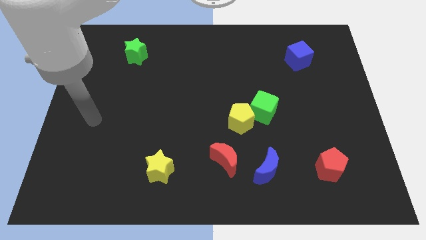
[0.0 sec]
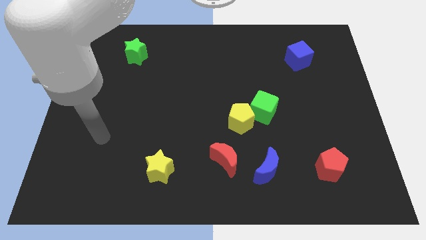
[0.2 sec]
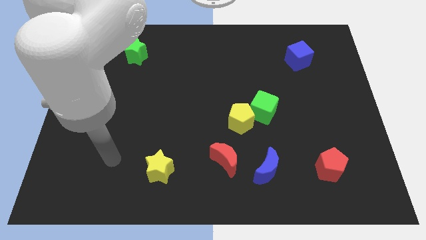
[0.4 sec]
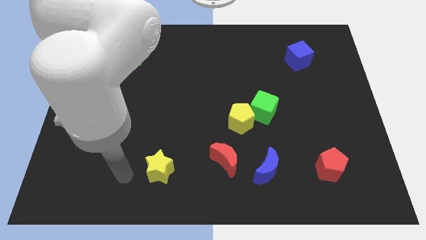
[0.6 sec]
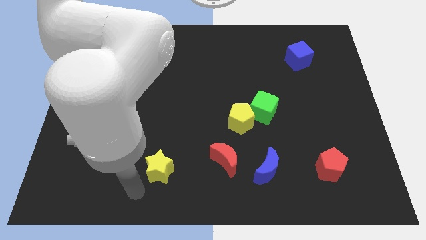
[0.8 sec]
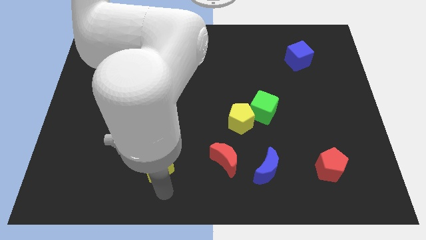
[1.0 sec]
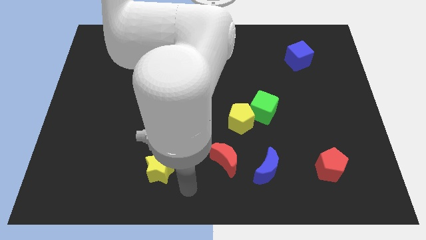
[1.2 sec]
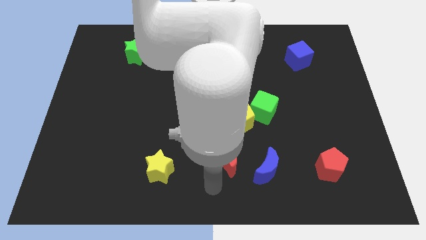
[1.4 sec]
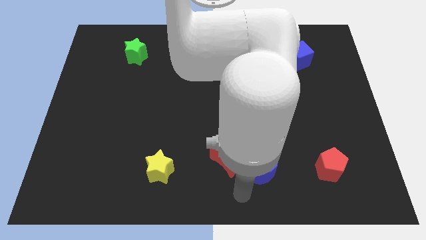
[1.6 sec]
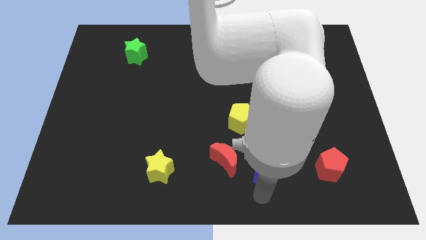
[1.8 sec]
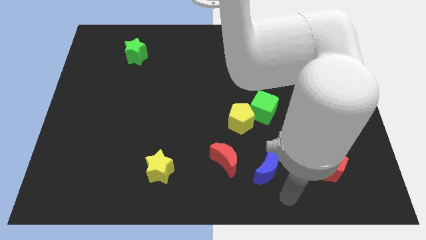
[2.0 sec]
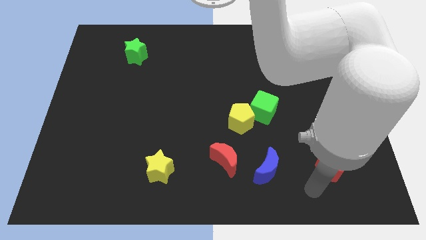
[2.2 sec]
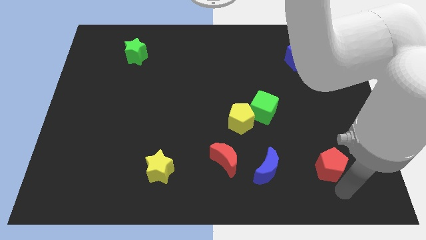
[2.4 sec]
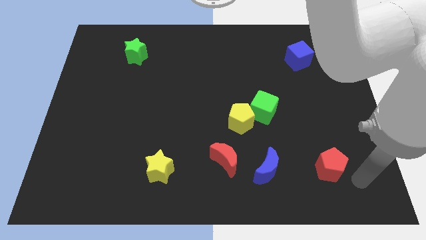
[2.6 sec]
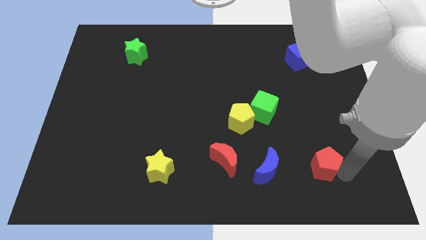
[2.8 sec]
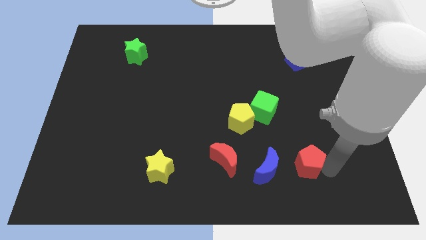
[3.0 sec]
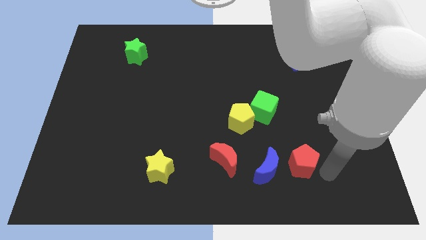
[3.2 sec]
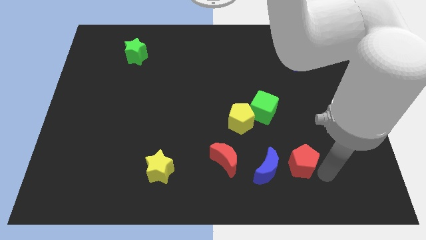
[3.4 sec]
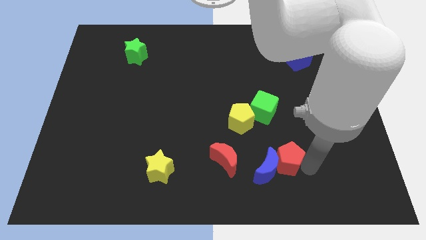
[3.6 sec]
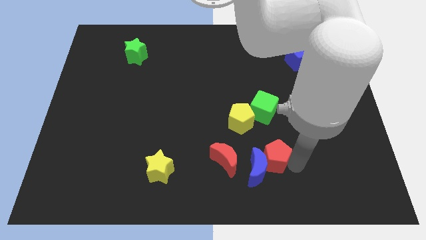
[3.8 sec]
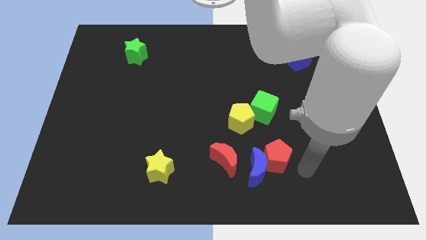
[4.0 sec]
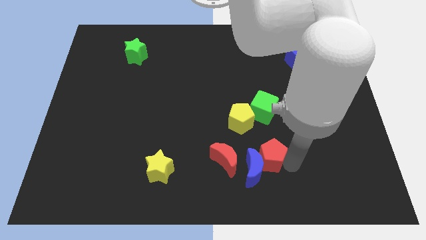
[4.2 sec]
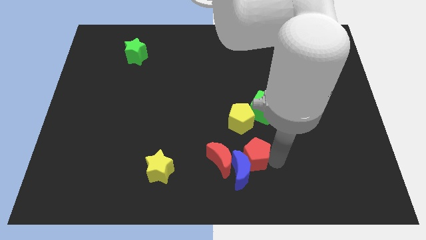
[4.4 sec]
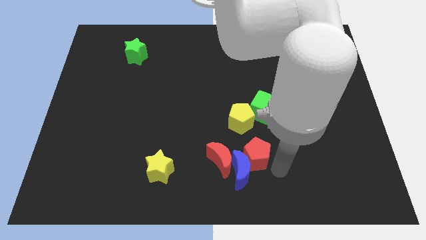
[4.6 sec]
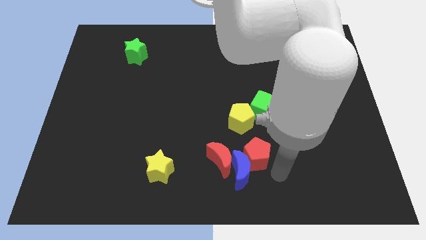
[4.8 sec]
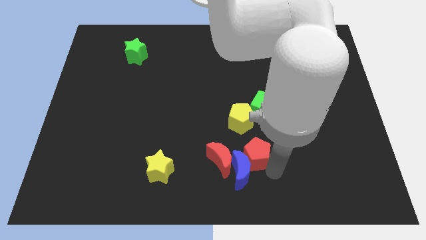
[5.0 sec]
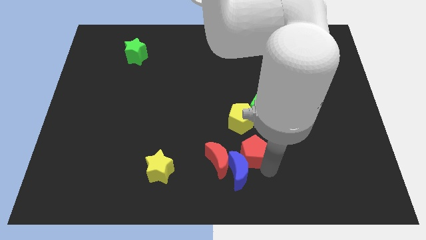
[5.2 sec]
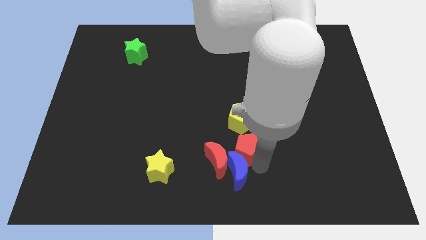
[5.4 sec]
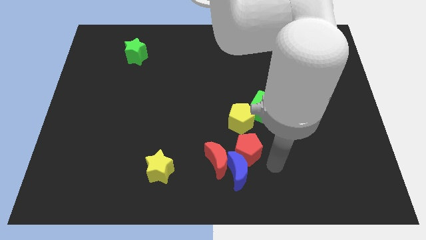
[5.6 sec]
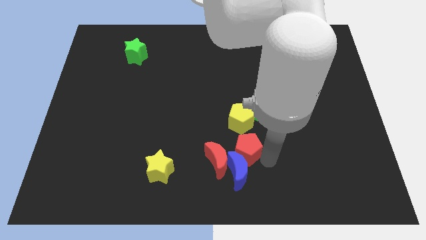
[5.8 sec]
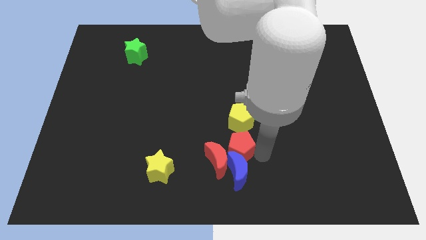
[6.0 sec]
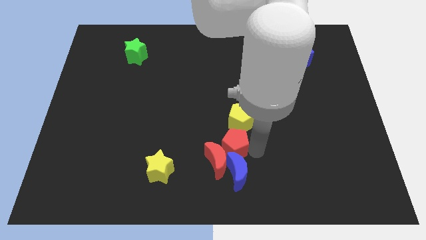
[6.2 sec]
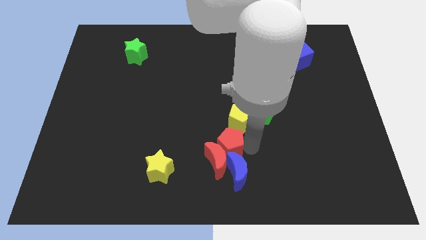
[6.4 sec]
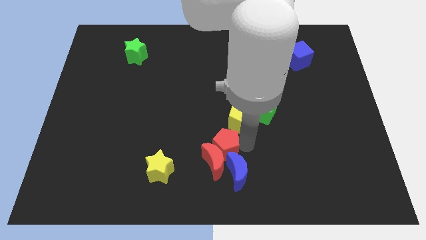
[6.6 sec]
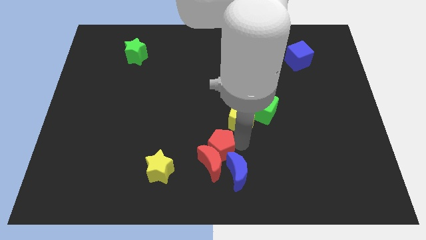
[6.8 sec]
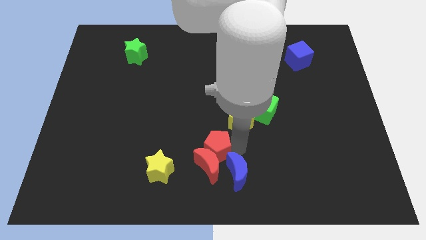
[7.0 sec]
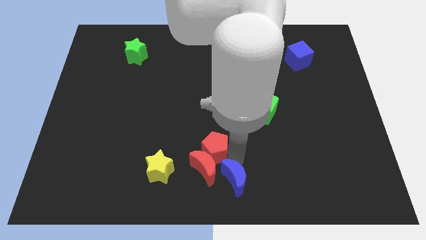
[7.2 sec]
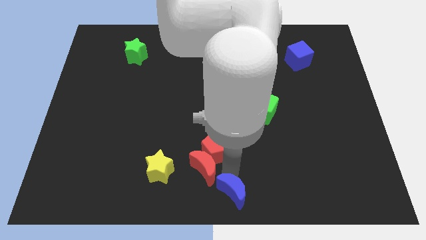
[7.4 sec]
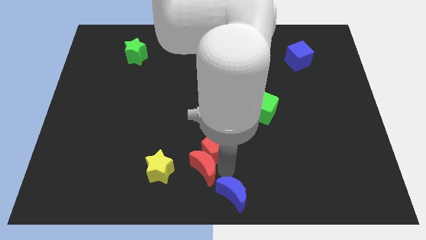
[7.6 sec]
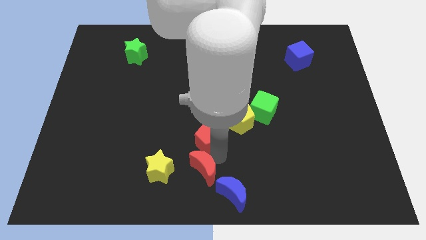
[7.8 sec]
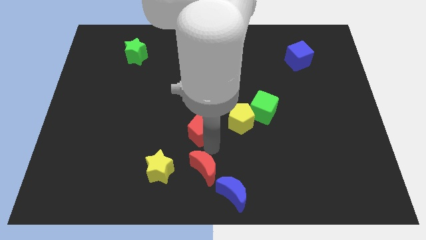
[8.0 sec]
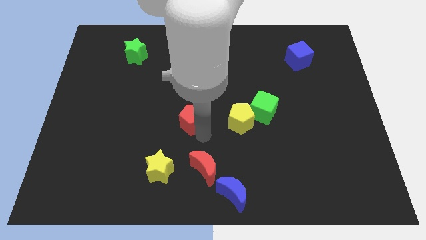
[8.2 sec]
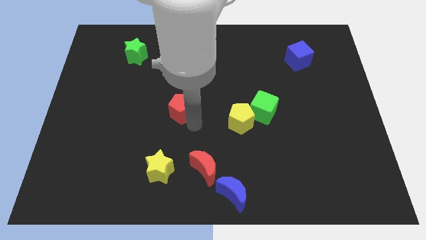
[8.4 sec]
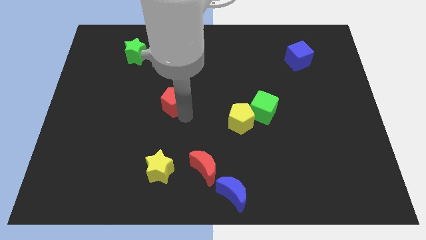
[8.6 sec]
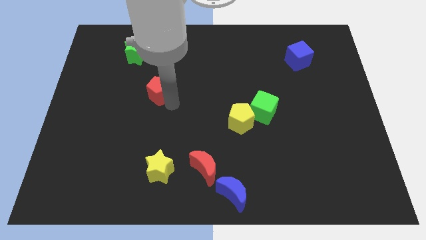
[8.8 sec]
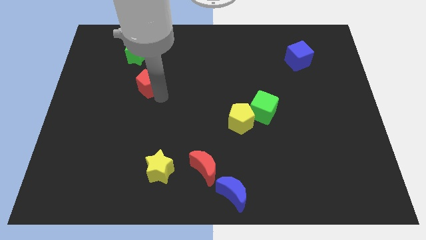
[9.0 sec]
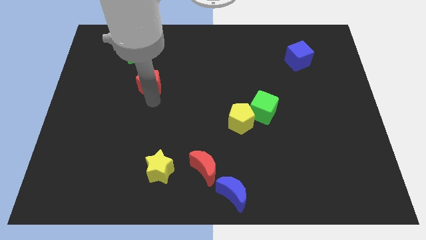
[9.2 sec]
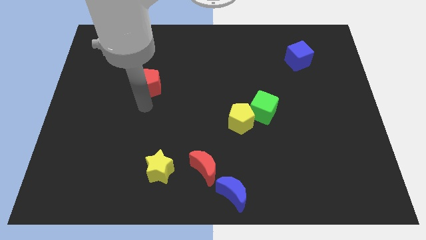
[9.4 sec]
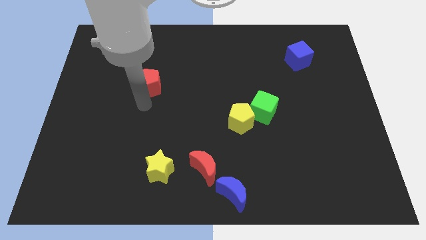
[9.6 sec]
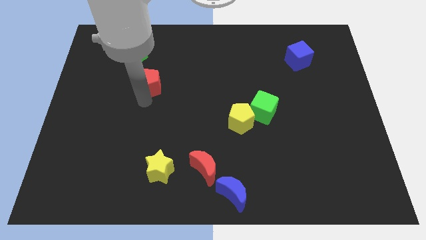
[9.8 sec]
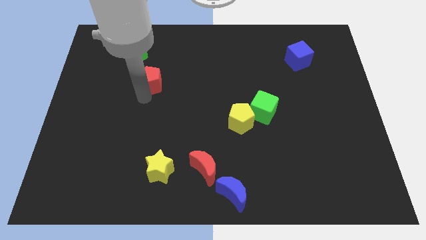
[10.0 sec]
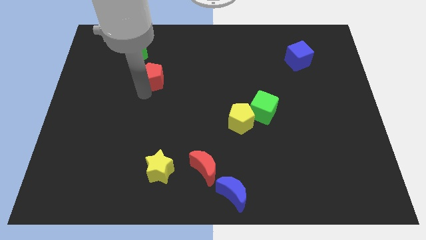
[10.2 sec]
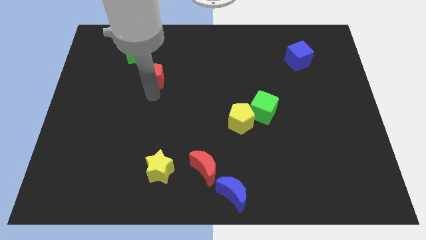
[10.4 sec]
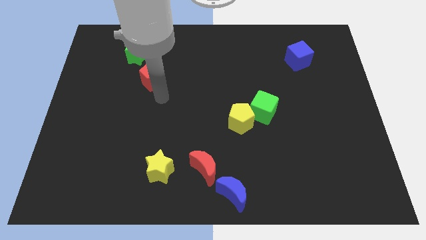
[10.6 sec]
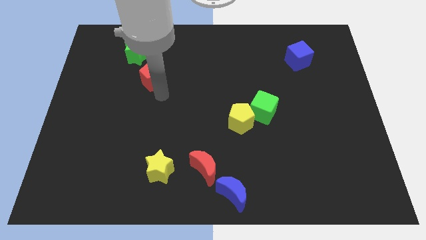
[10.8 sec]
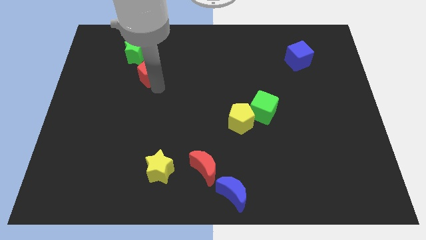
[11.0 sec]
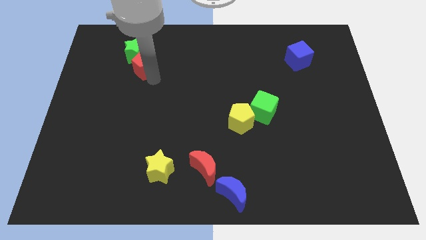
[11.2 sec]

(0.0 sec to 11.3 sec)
push the red pentagon next to the green star

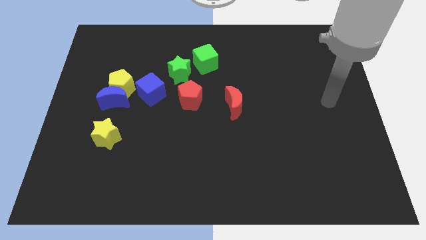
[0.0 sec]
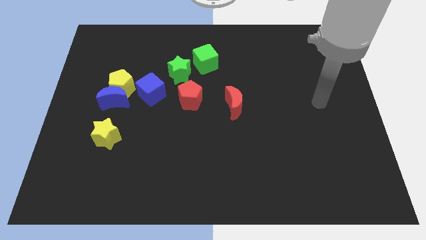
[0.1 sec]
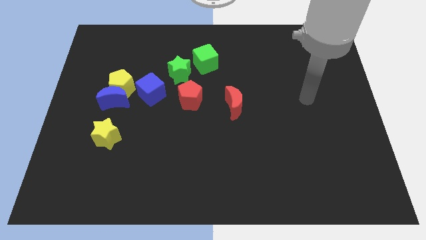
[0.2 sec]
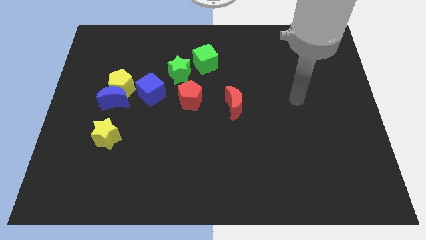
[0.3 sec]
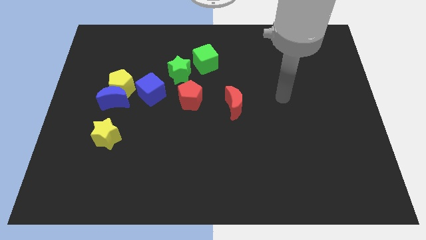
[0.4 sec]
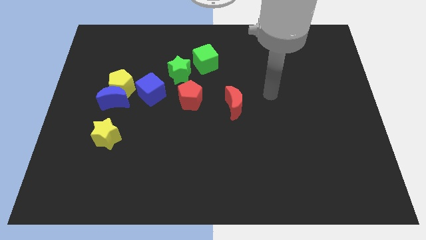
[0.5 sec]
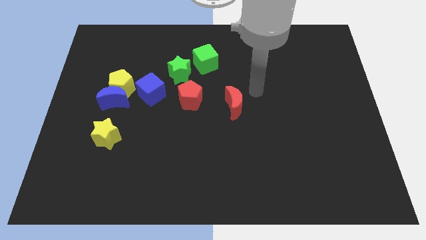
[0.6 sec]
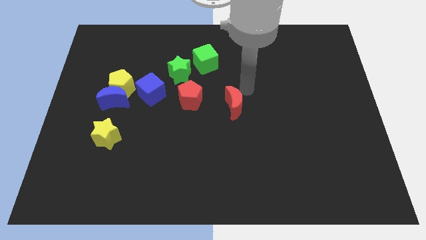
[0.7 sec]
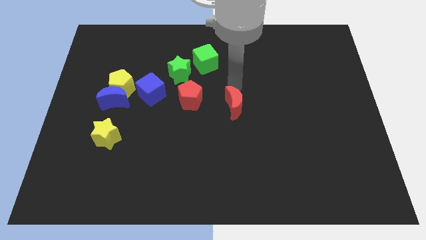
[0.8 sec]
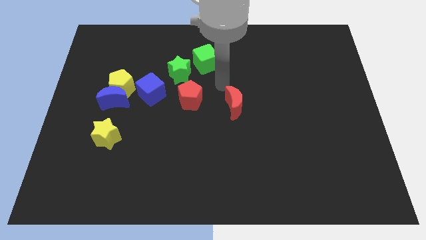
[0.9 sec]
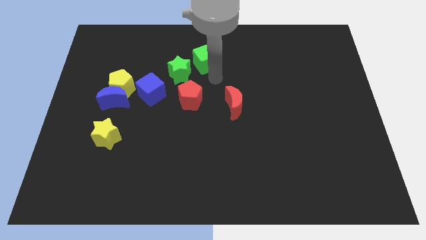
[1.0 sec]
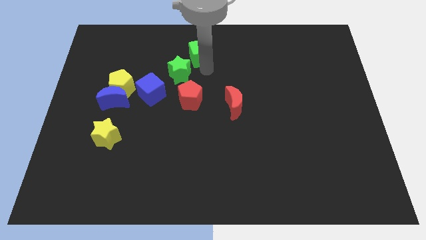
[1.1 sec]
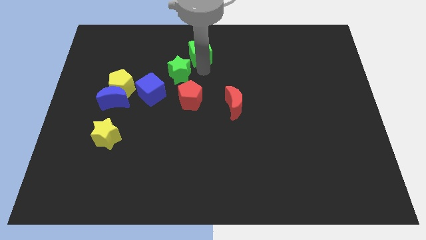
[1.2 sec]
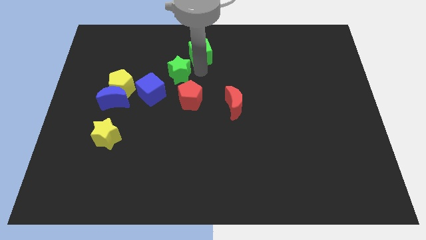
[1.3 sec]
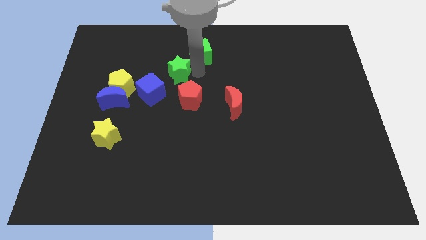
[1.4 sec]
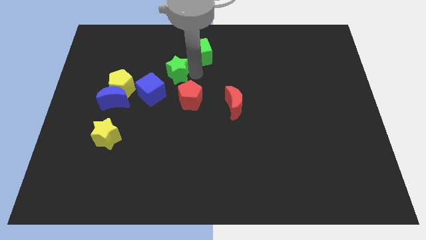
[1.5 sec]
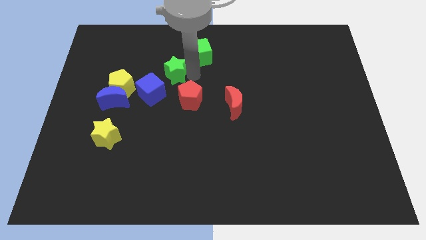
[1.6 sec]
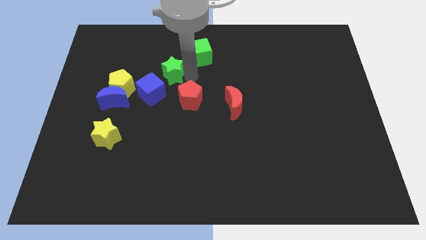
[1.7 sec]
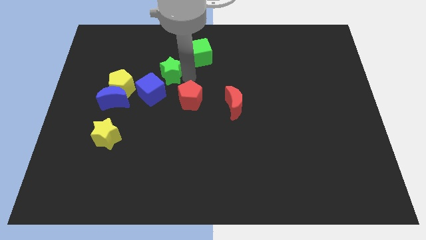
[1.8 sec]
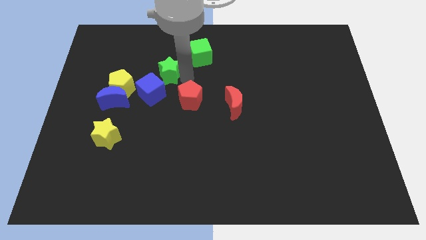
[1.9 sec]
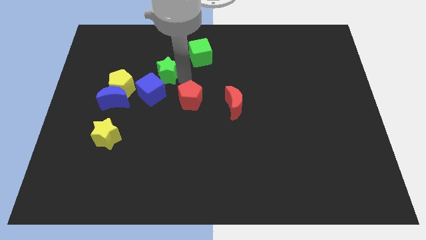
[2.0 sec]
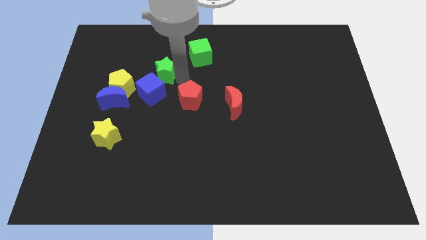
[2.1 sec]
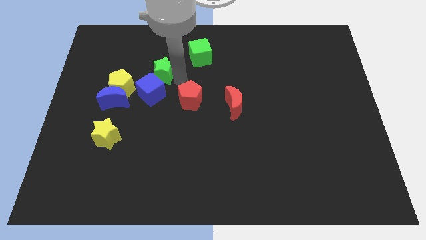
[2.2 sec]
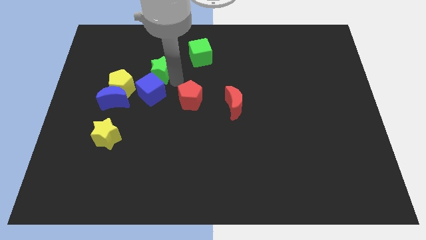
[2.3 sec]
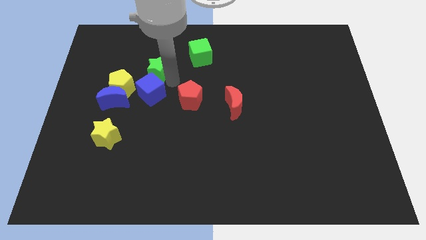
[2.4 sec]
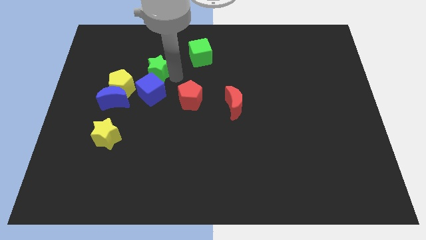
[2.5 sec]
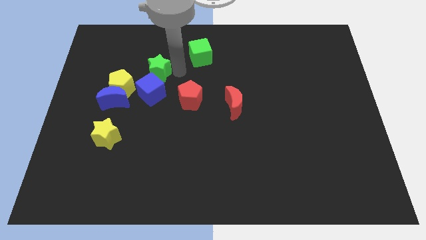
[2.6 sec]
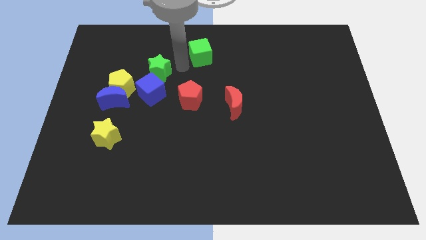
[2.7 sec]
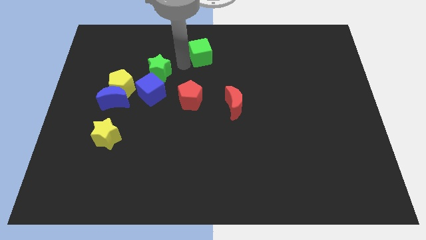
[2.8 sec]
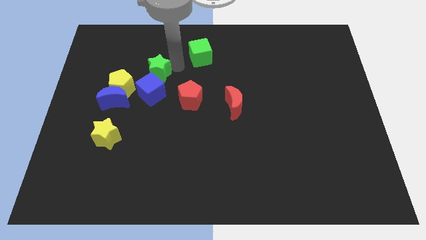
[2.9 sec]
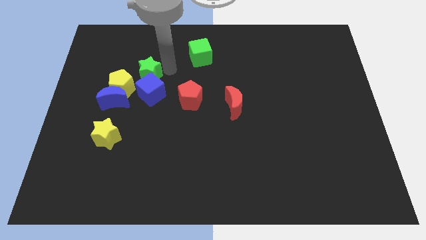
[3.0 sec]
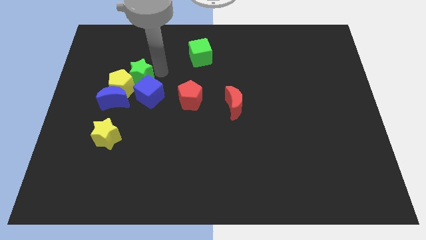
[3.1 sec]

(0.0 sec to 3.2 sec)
slide the green star towards the yellow pentagon
